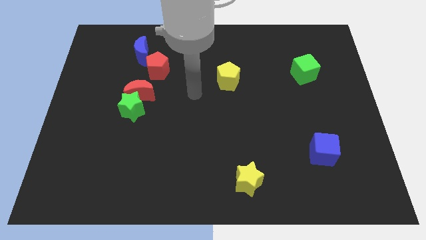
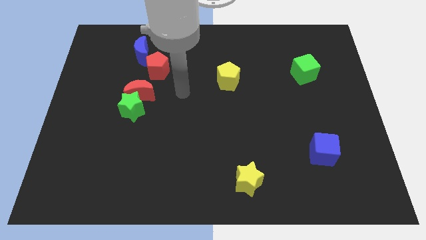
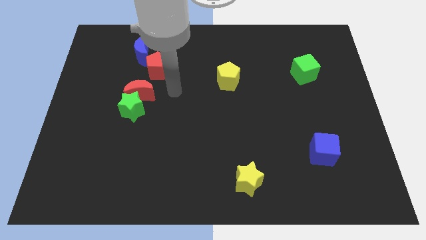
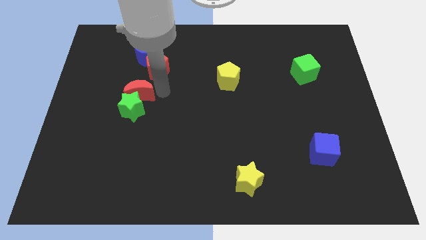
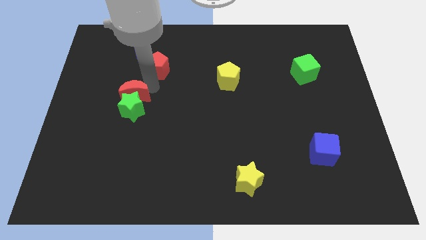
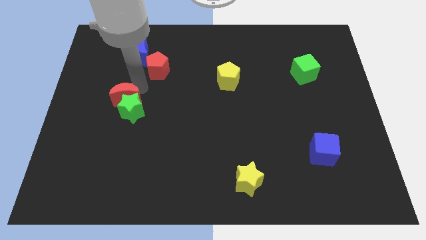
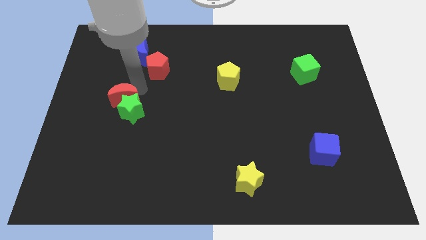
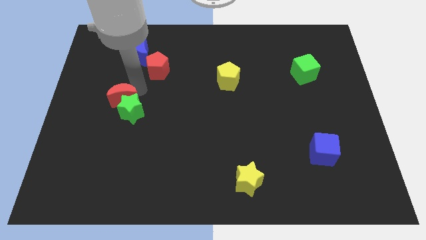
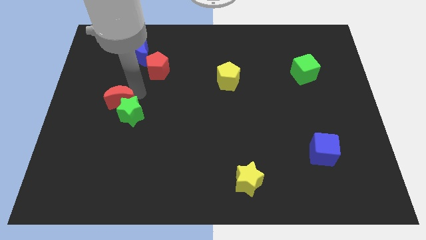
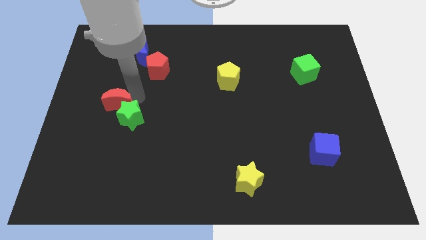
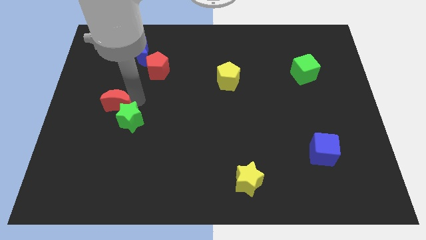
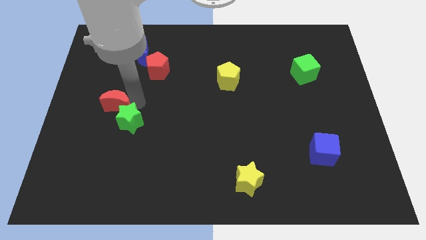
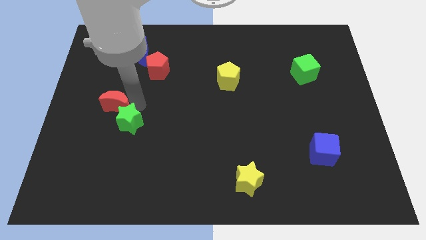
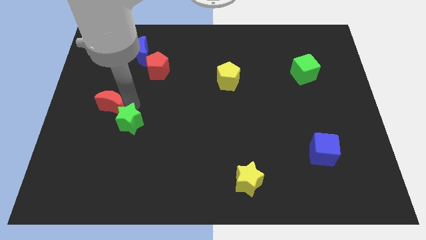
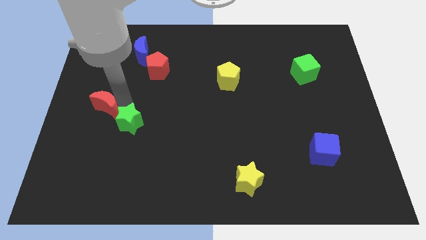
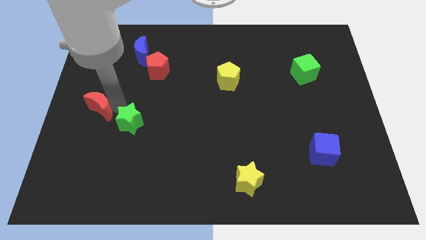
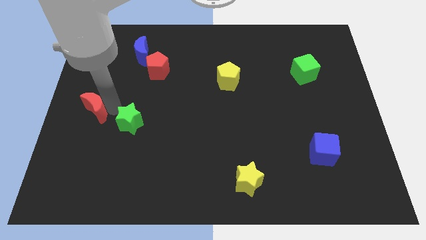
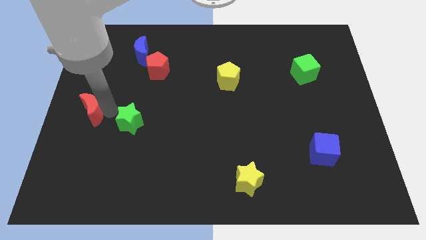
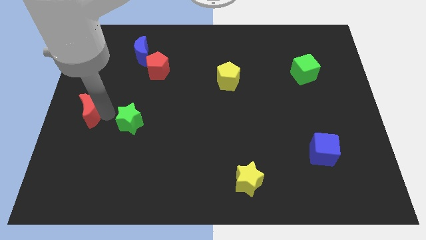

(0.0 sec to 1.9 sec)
pull the green star apart from the red moon

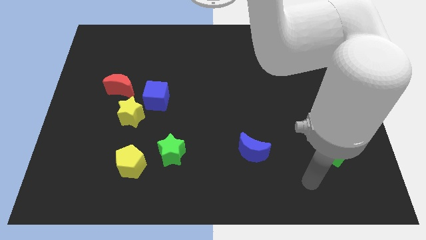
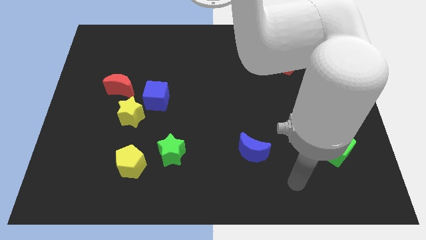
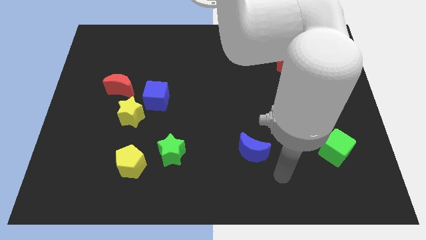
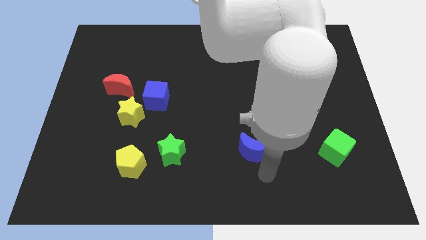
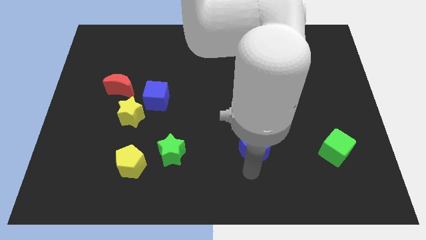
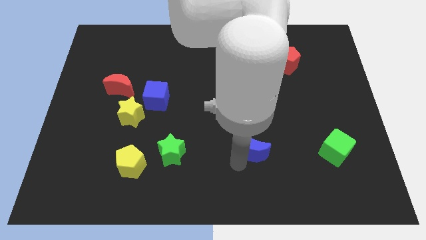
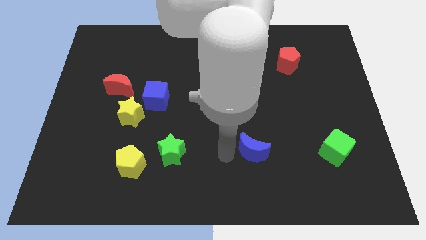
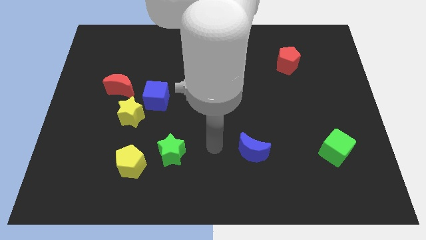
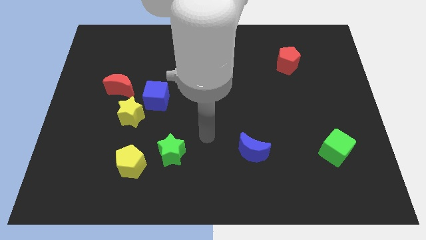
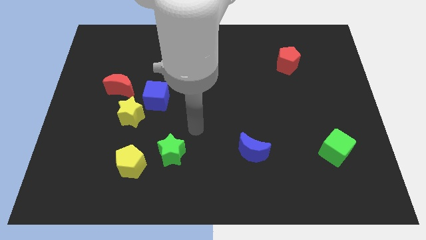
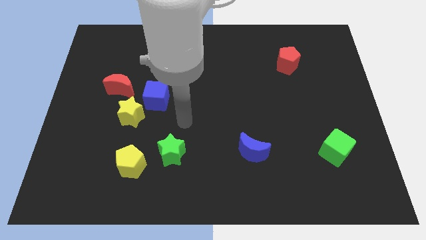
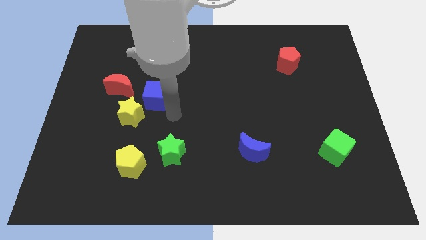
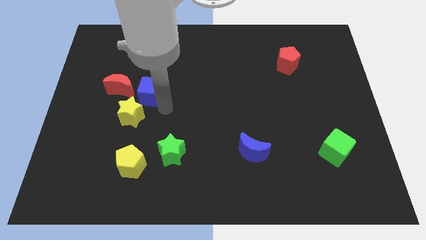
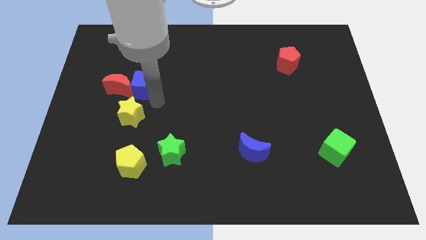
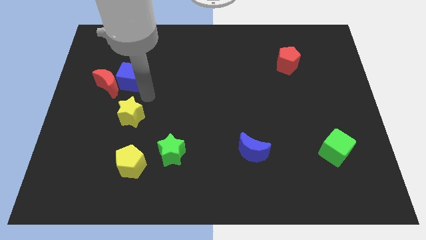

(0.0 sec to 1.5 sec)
separate the yellow star from the blue cube and red moon

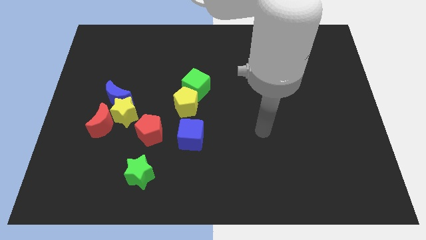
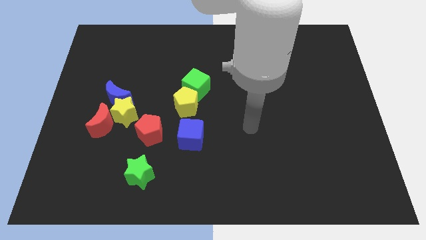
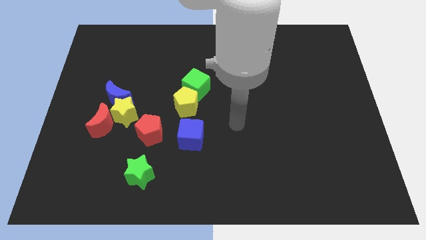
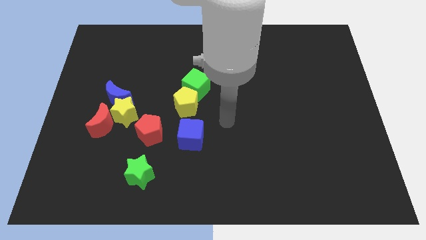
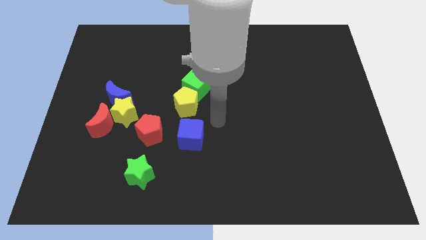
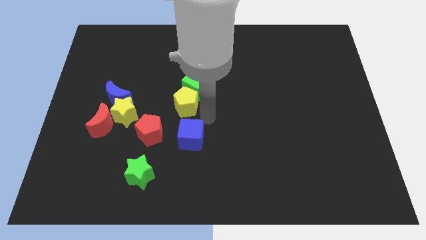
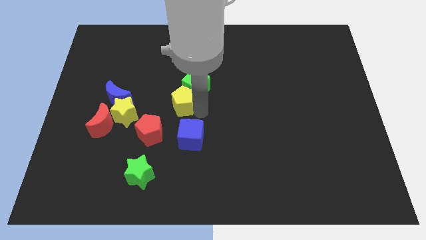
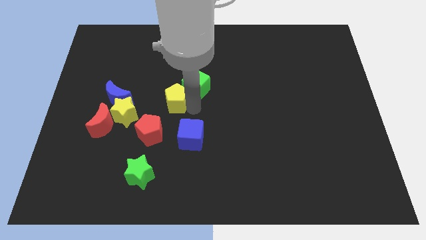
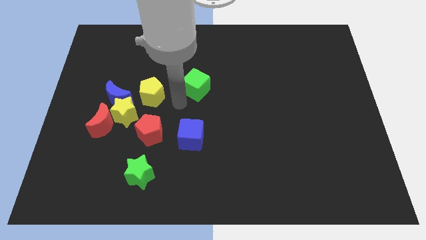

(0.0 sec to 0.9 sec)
move the green cube away from the yellow pentagon

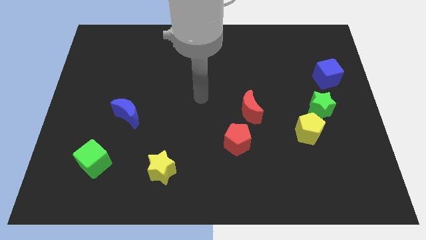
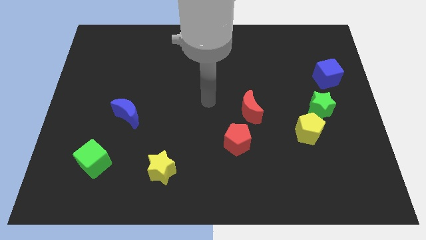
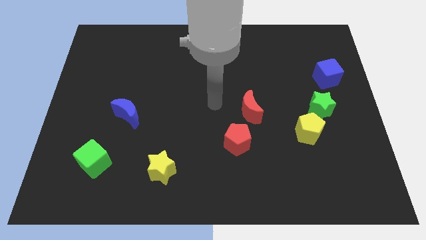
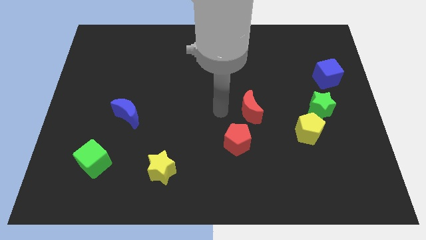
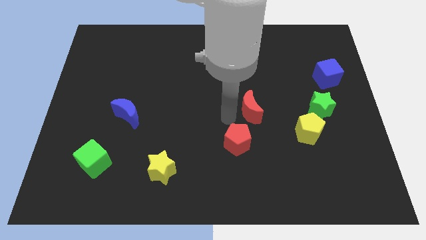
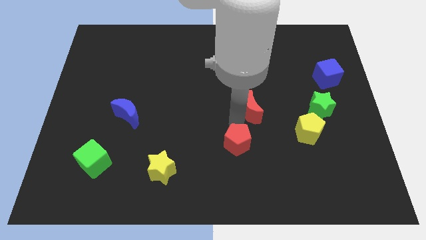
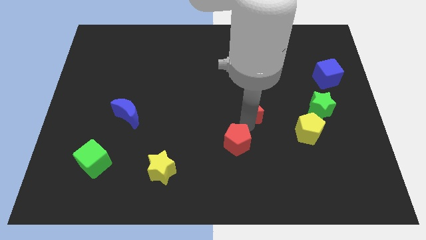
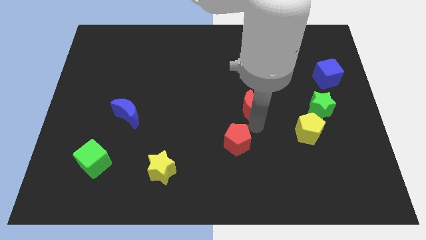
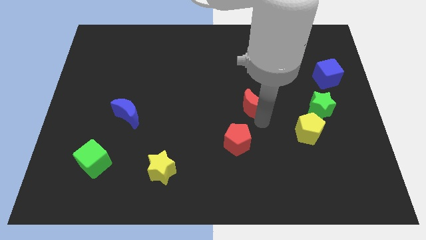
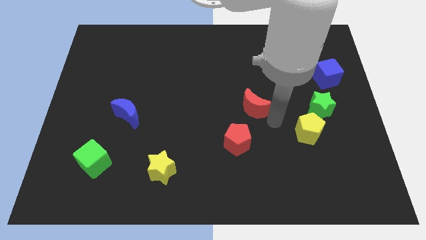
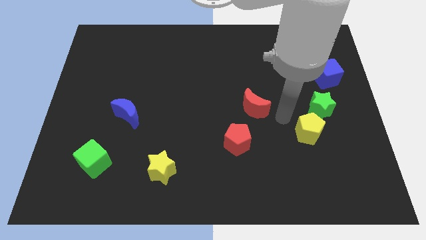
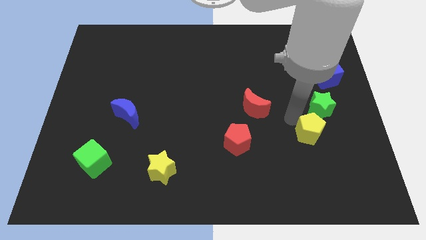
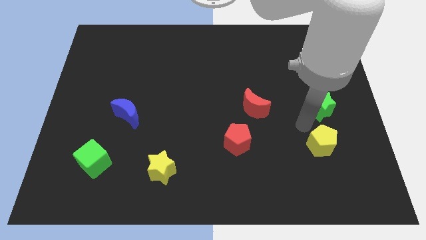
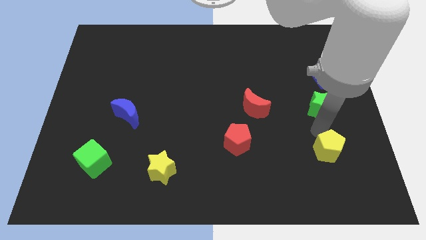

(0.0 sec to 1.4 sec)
pull the green star apart from the yellow pentagon

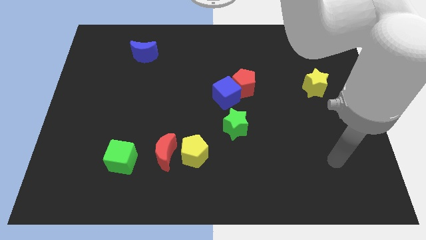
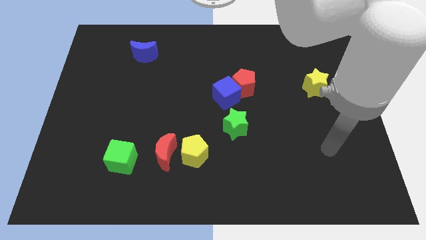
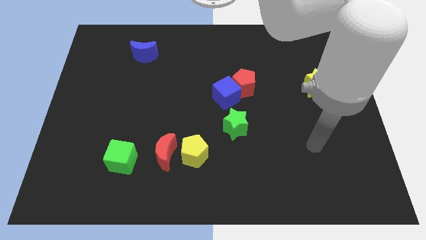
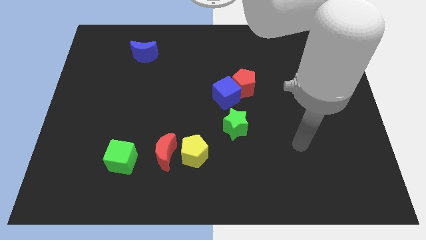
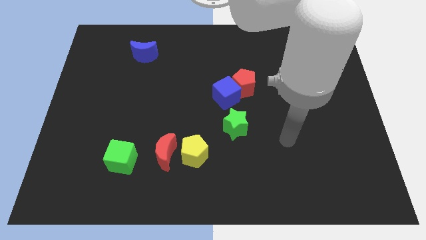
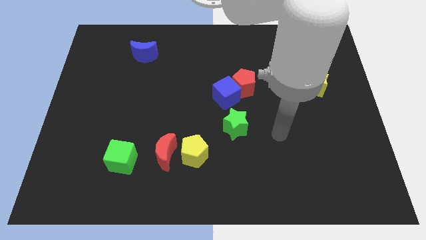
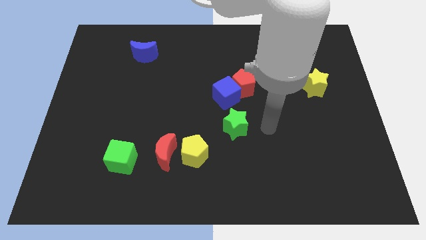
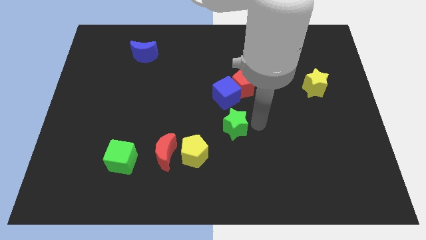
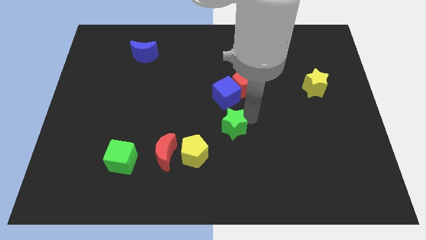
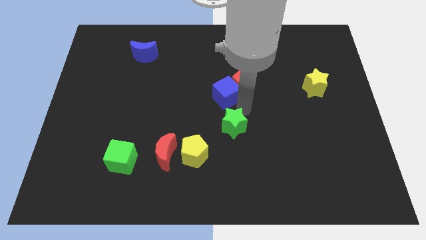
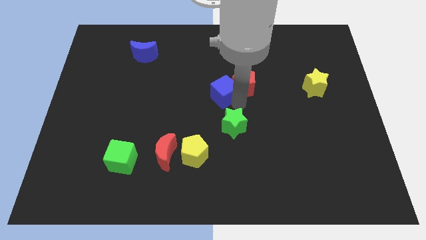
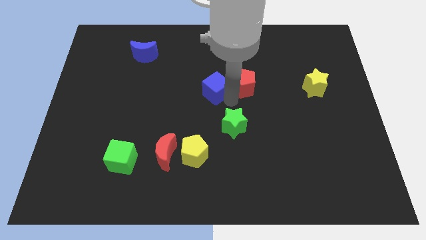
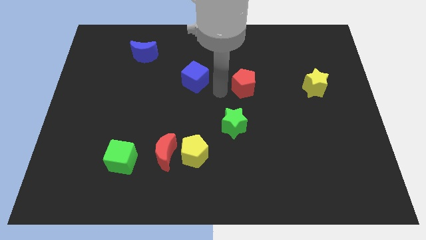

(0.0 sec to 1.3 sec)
move the red pentagon away from the blue cube

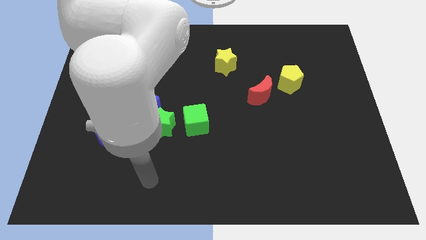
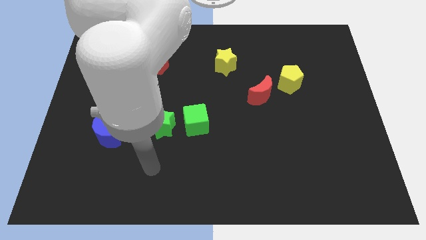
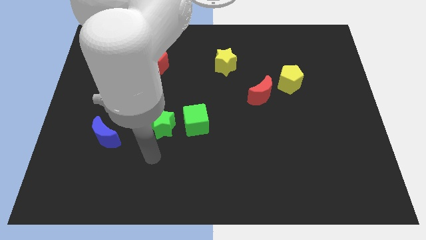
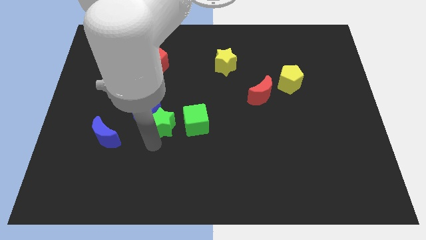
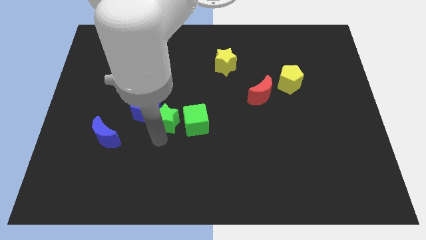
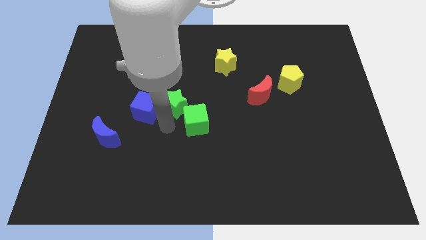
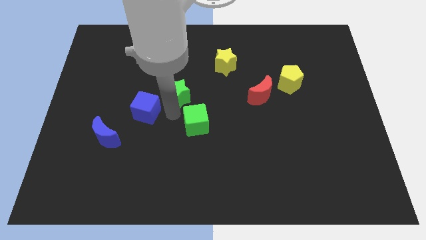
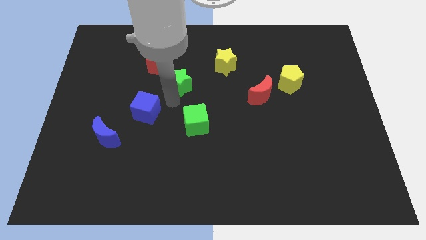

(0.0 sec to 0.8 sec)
pull the blue cube apart from the green star

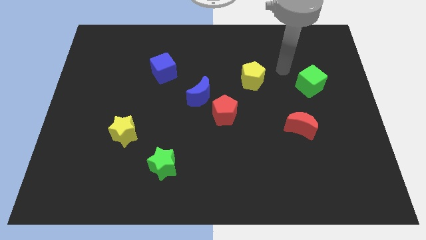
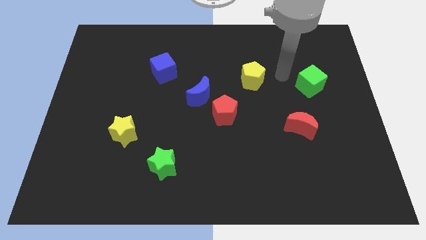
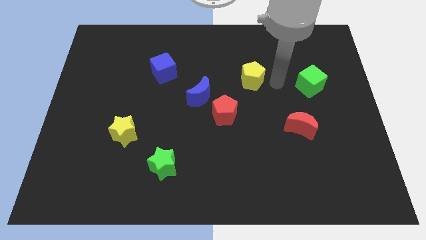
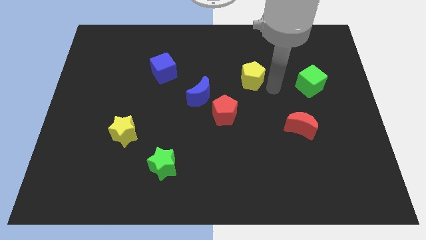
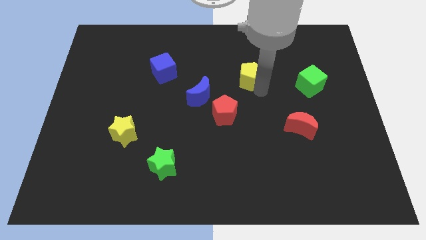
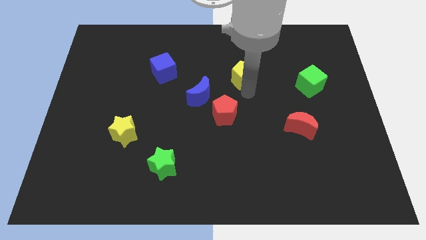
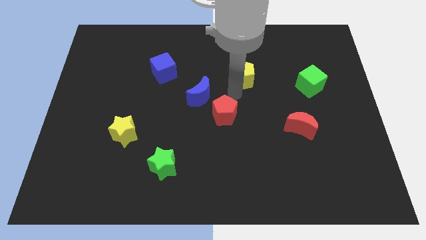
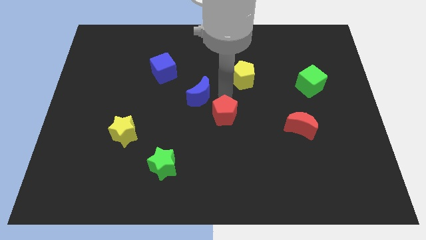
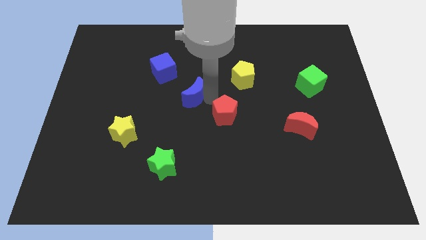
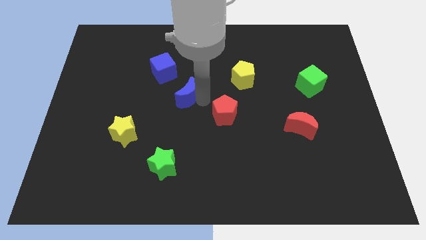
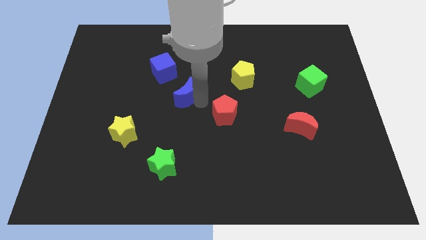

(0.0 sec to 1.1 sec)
move the red pentagon away from the blue moon

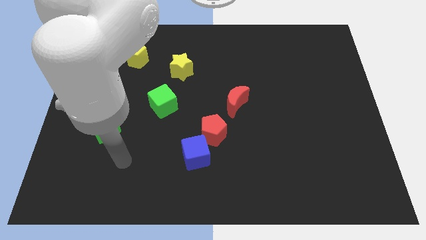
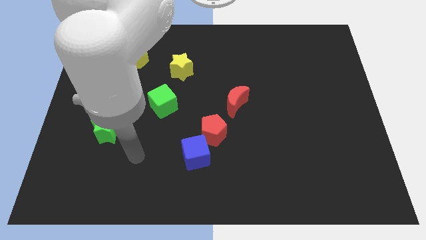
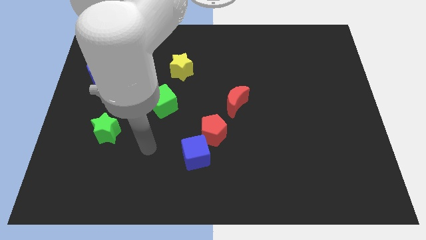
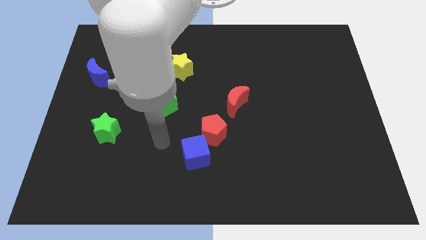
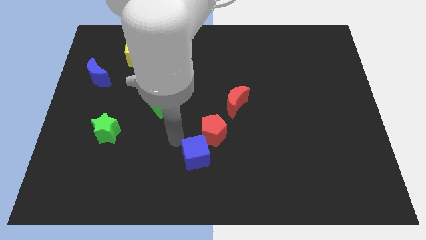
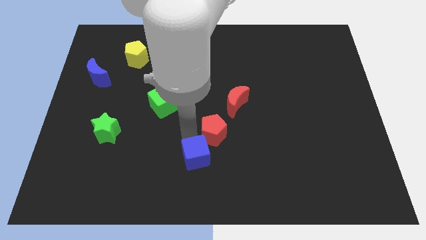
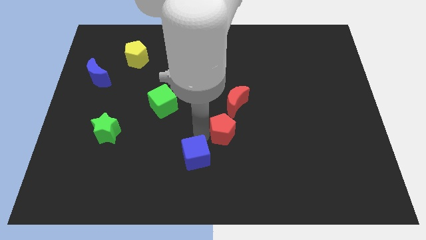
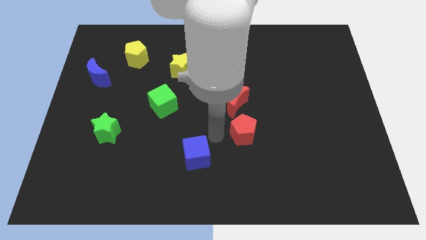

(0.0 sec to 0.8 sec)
separate the blue cube from the red pentagon
